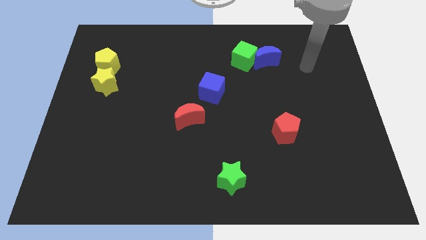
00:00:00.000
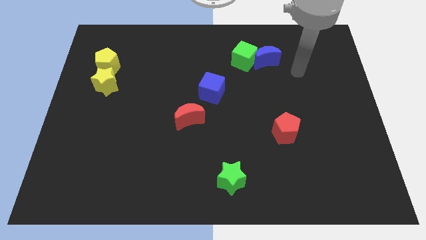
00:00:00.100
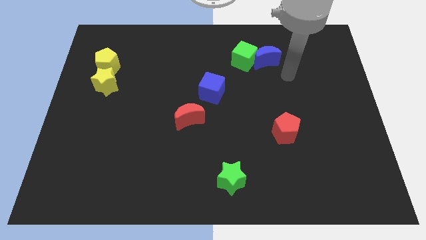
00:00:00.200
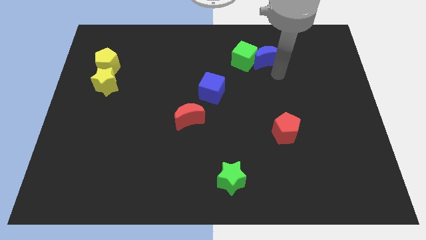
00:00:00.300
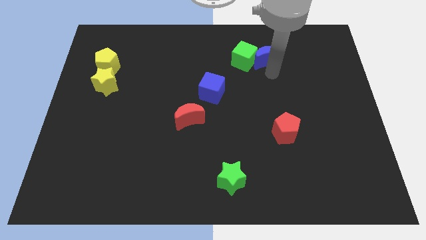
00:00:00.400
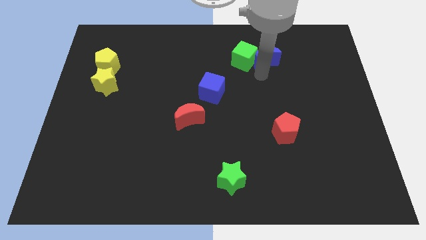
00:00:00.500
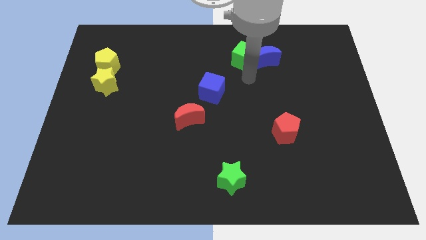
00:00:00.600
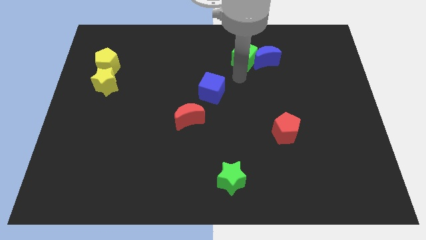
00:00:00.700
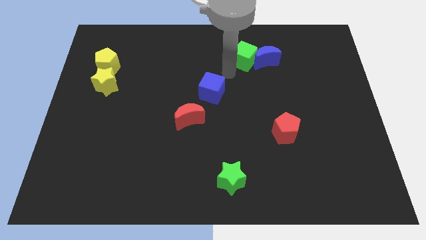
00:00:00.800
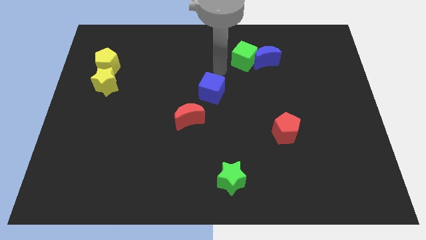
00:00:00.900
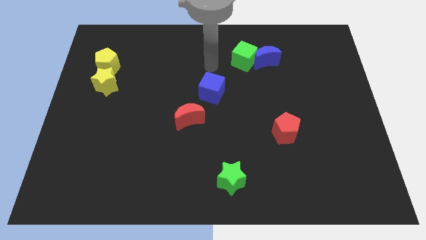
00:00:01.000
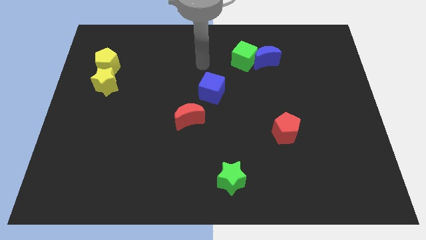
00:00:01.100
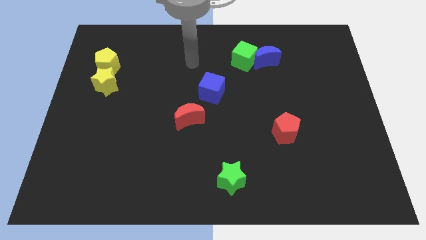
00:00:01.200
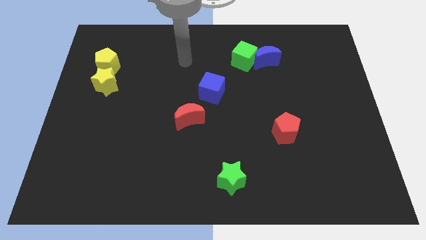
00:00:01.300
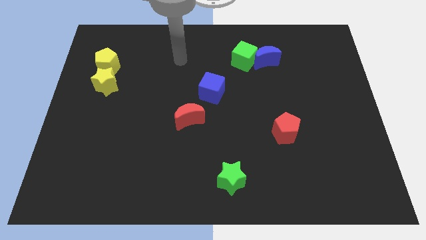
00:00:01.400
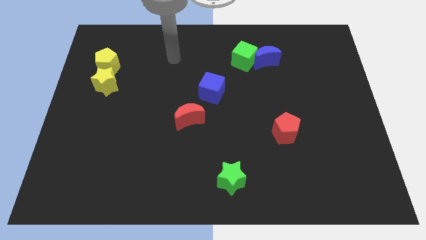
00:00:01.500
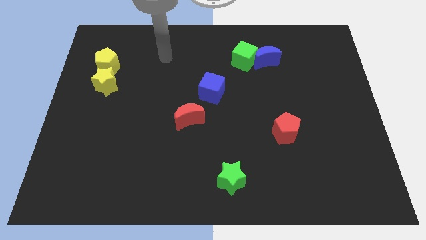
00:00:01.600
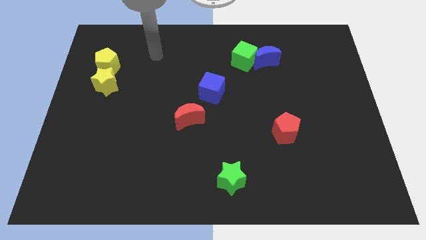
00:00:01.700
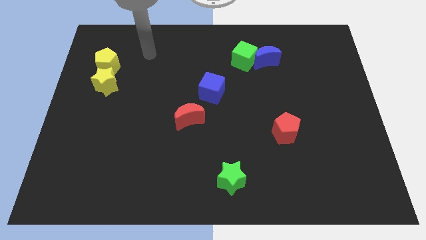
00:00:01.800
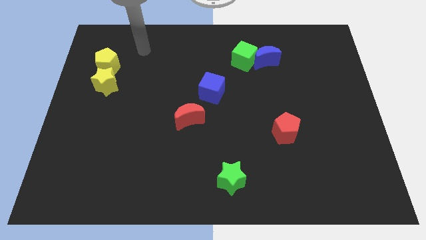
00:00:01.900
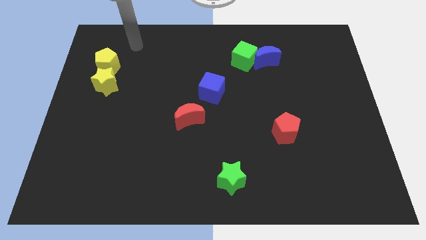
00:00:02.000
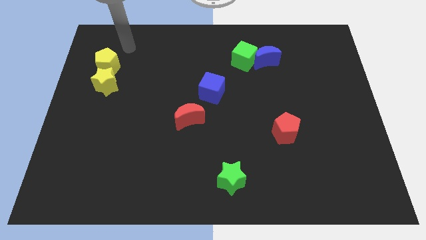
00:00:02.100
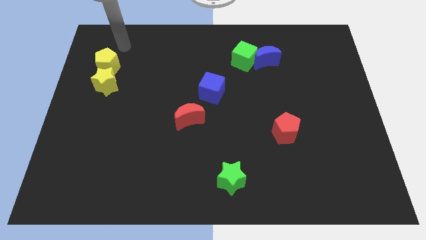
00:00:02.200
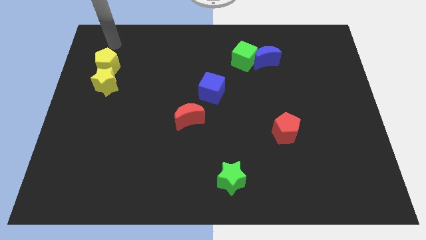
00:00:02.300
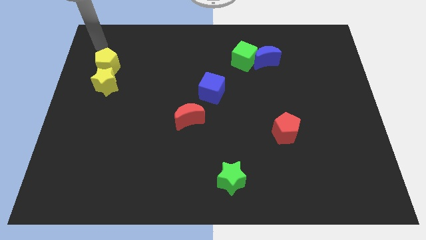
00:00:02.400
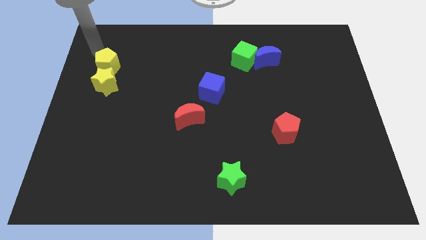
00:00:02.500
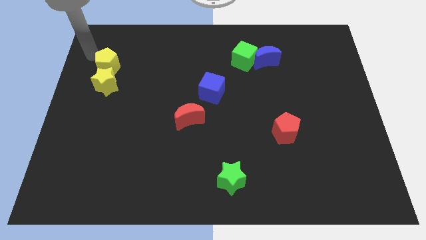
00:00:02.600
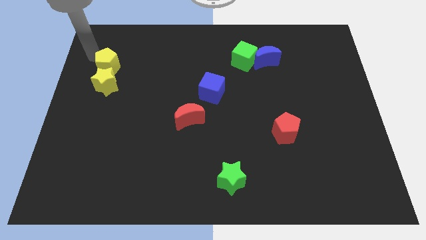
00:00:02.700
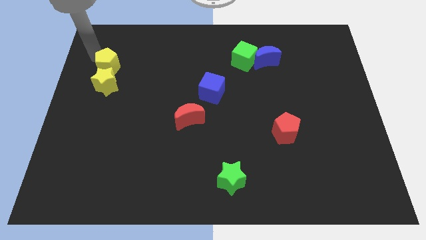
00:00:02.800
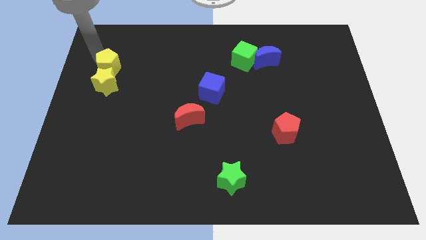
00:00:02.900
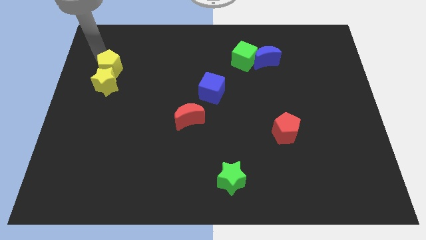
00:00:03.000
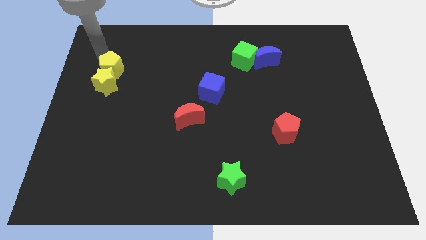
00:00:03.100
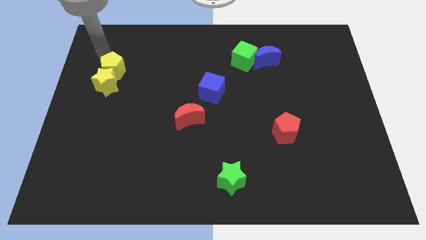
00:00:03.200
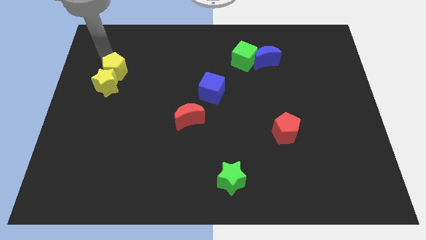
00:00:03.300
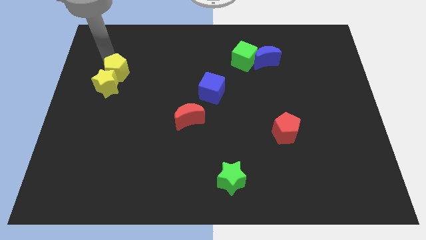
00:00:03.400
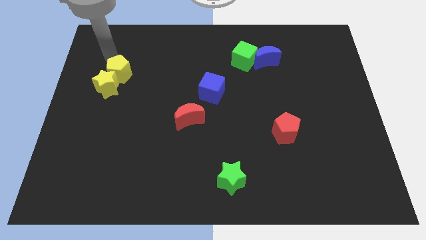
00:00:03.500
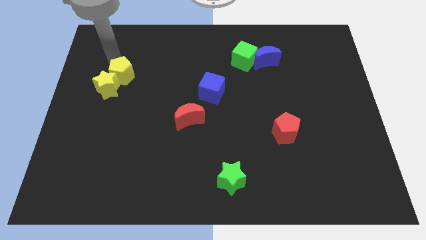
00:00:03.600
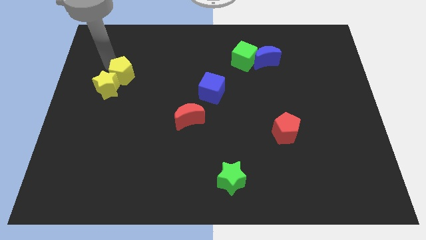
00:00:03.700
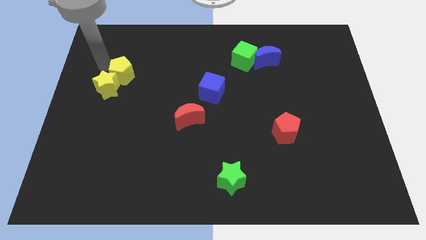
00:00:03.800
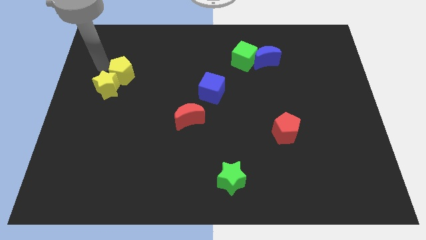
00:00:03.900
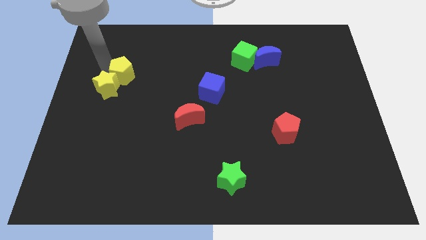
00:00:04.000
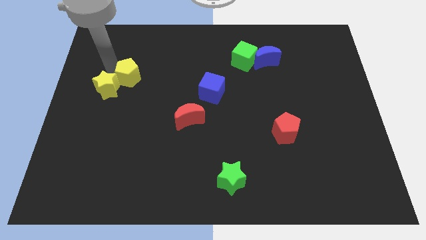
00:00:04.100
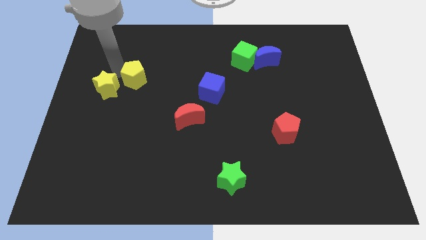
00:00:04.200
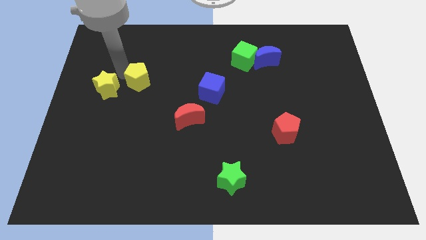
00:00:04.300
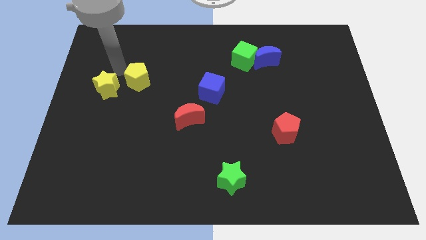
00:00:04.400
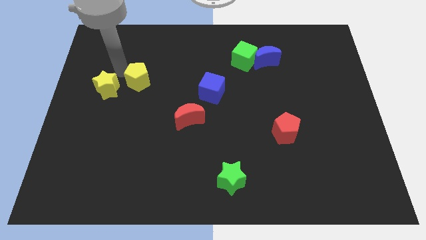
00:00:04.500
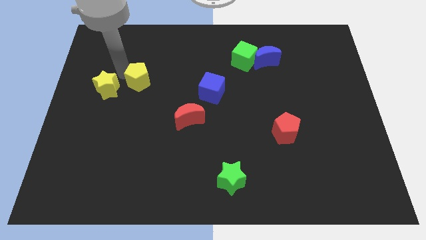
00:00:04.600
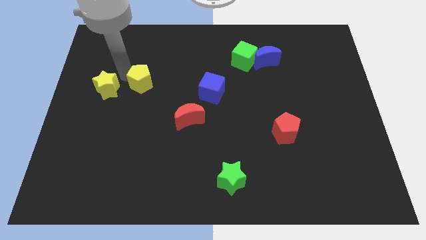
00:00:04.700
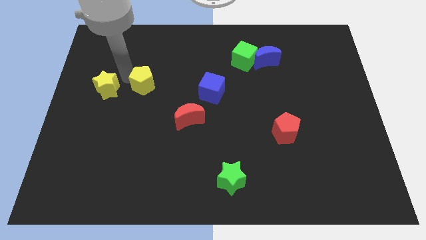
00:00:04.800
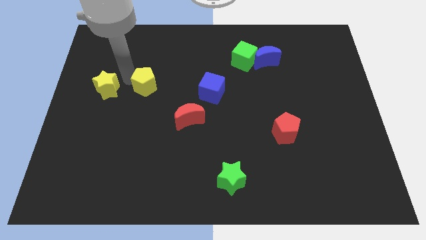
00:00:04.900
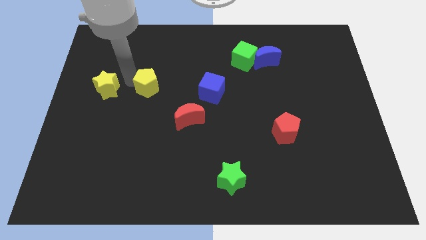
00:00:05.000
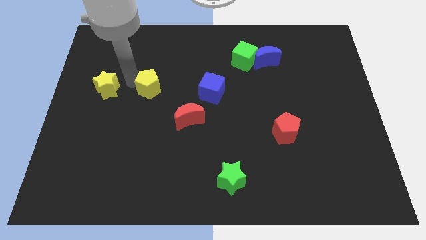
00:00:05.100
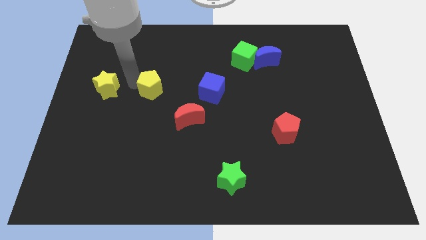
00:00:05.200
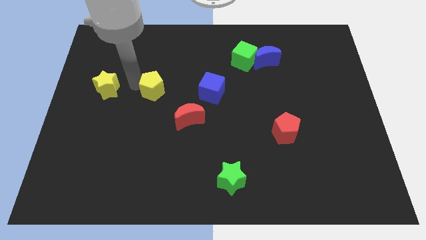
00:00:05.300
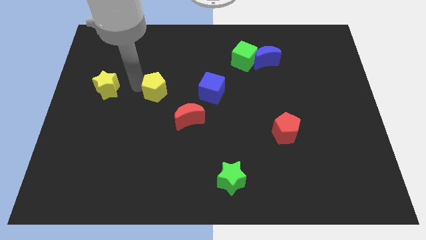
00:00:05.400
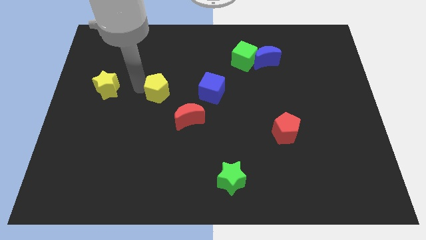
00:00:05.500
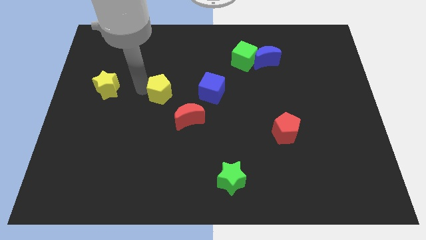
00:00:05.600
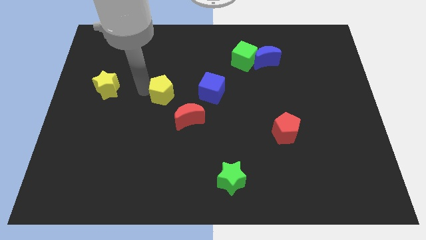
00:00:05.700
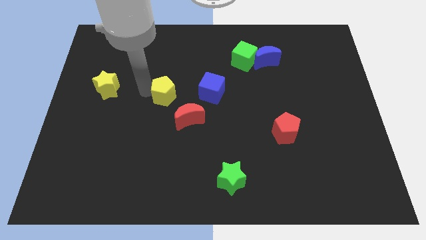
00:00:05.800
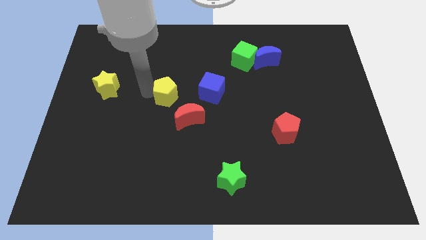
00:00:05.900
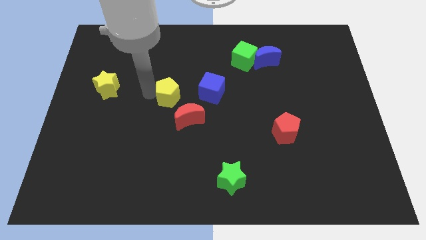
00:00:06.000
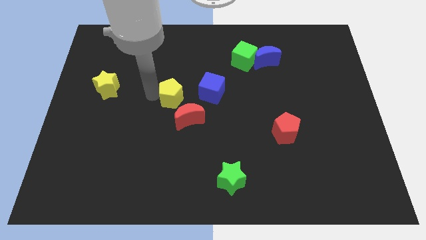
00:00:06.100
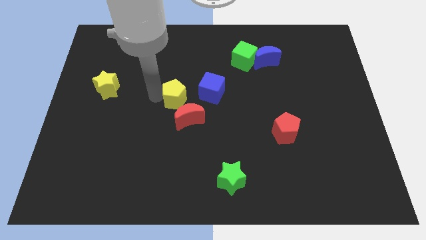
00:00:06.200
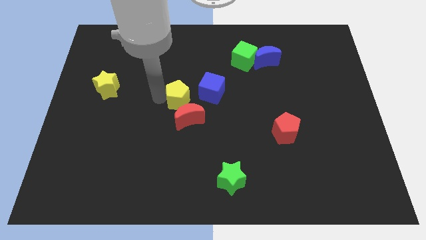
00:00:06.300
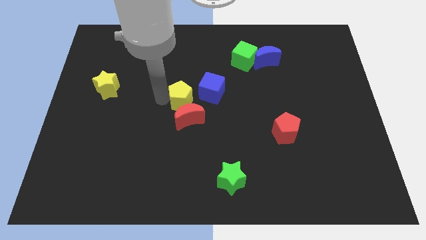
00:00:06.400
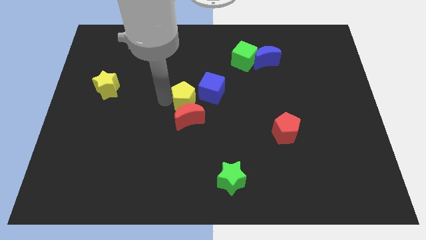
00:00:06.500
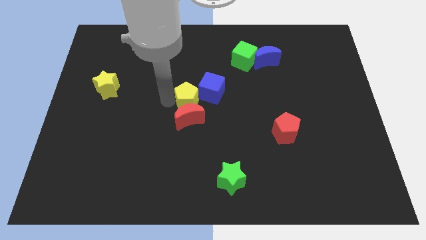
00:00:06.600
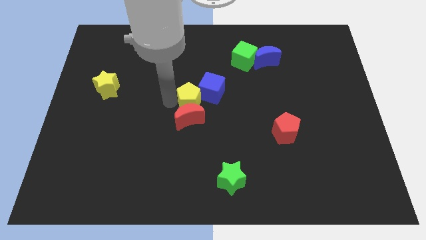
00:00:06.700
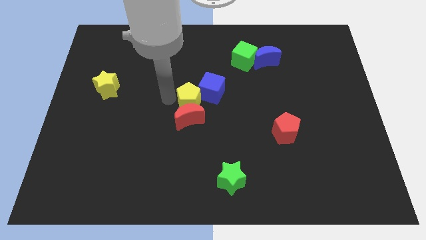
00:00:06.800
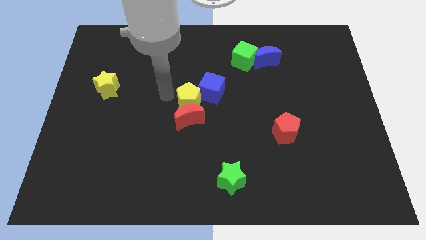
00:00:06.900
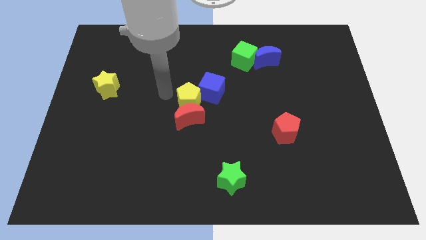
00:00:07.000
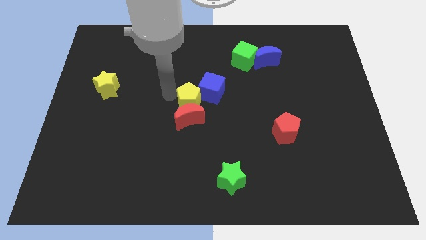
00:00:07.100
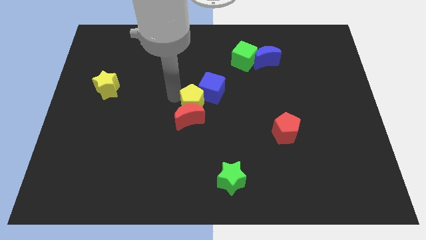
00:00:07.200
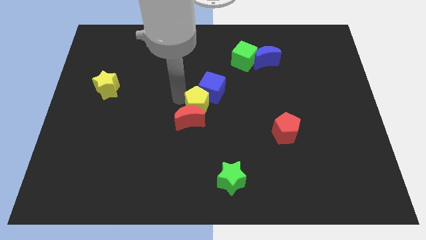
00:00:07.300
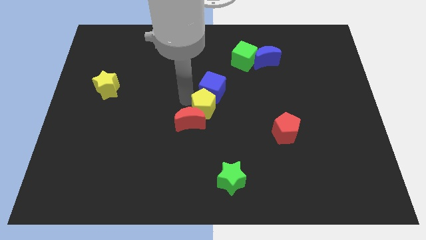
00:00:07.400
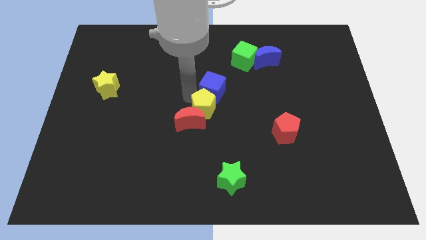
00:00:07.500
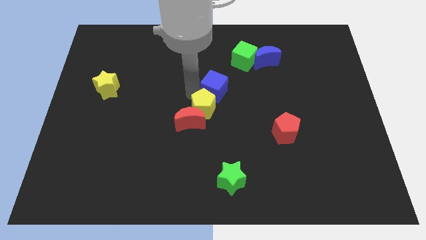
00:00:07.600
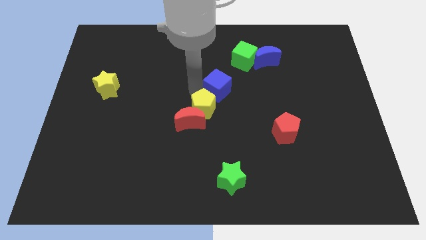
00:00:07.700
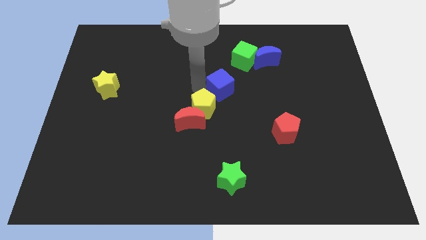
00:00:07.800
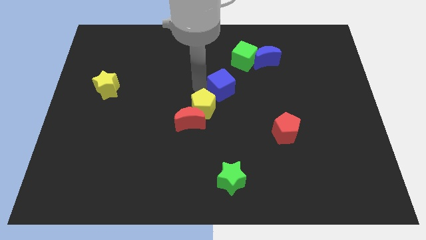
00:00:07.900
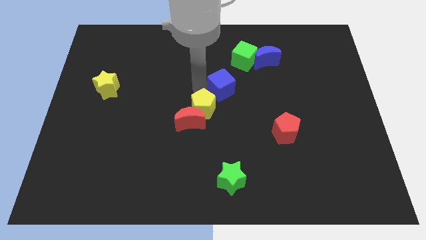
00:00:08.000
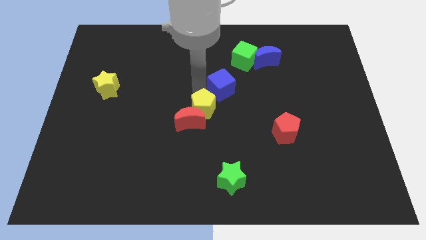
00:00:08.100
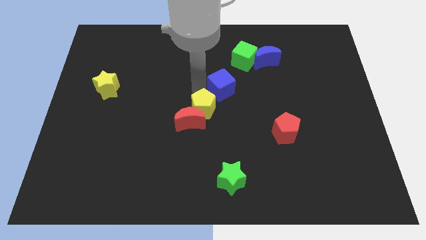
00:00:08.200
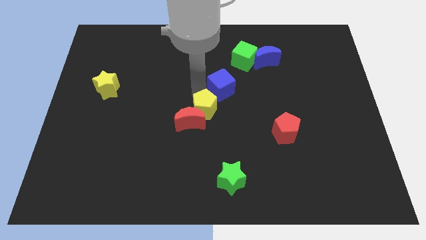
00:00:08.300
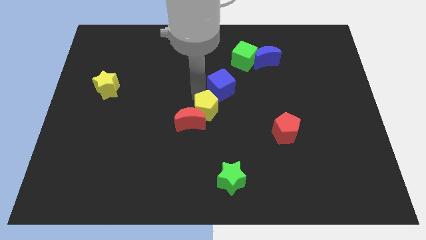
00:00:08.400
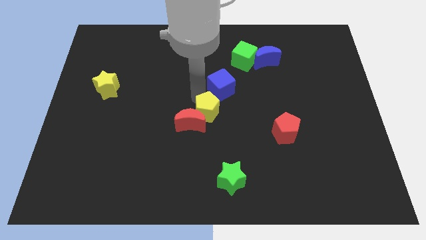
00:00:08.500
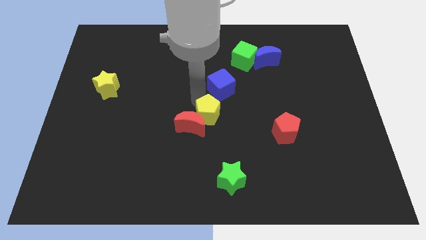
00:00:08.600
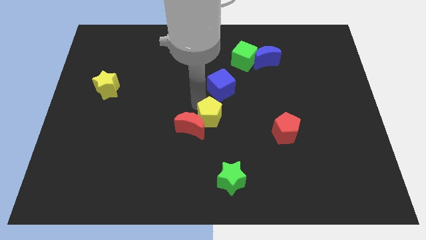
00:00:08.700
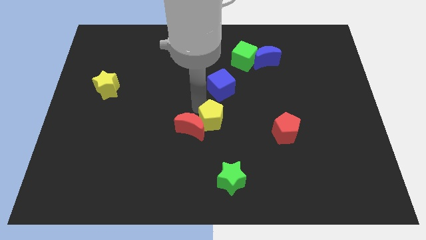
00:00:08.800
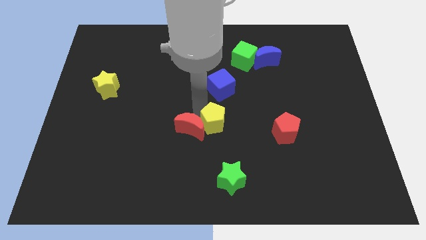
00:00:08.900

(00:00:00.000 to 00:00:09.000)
put the yellow pentagon diagonally down and to the right of the red moon
